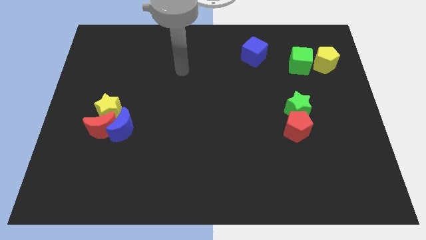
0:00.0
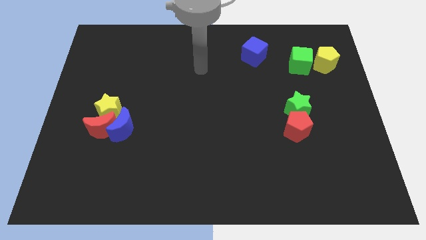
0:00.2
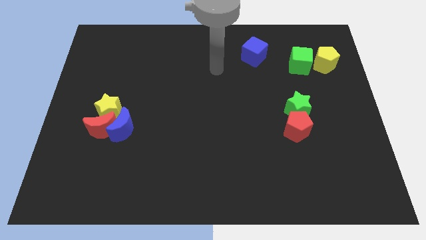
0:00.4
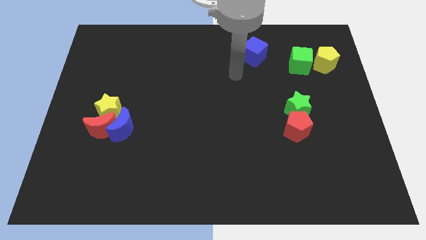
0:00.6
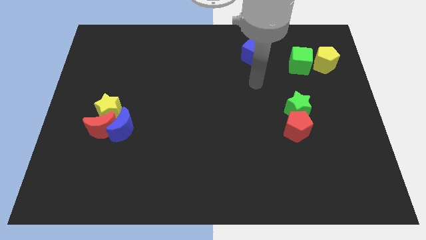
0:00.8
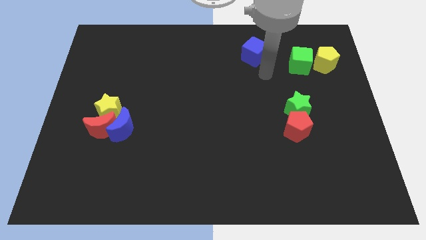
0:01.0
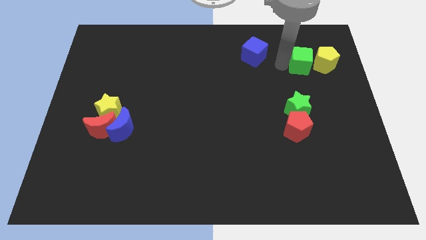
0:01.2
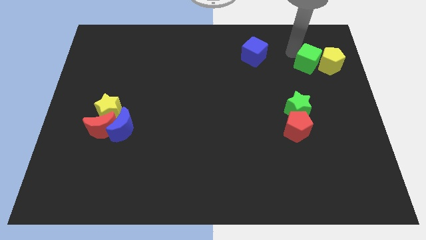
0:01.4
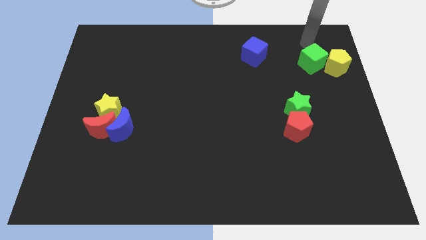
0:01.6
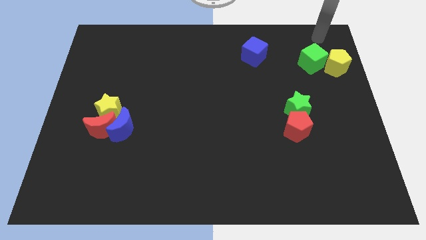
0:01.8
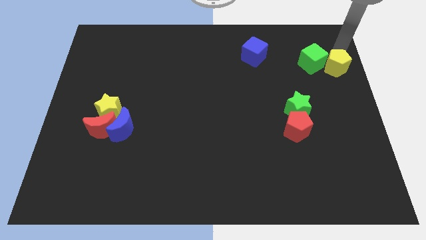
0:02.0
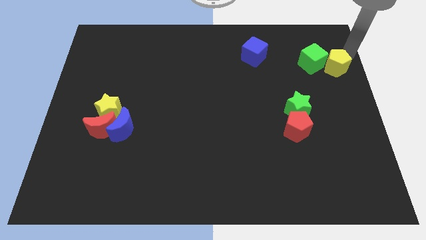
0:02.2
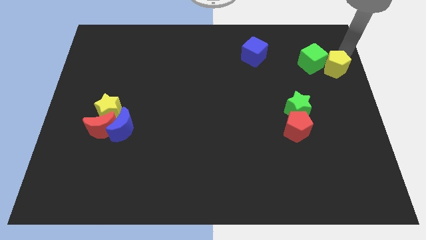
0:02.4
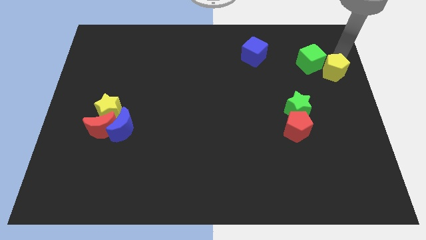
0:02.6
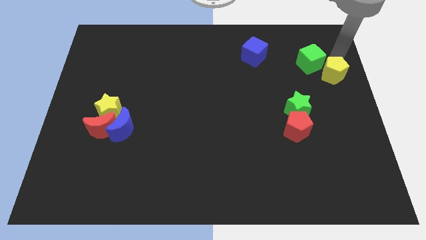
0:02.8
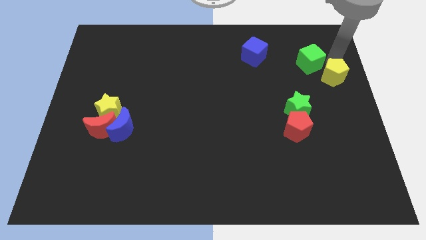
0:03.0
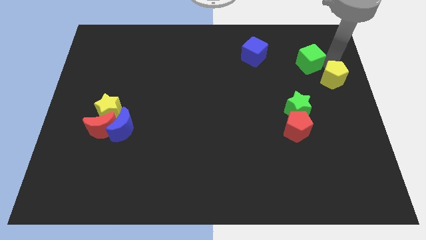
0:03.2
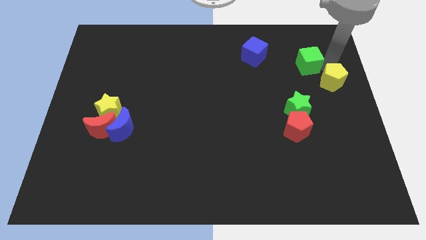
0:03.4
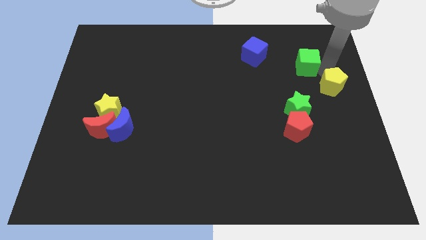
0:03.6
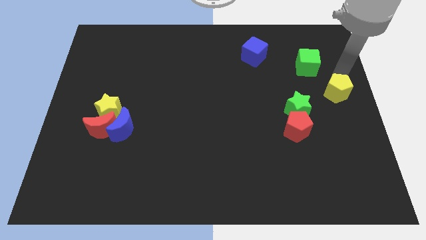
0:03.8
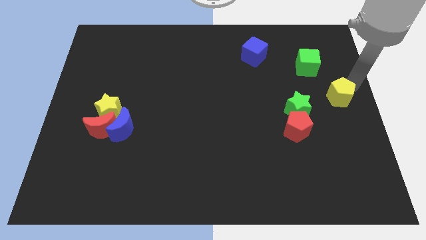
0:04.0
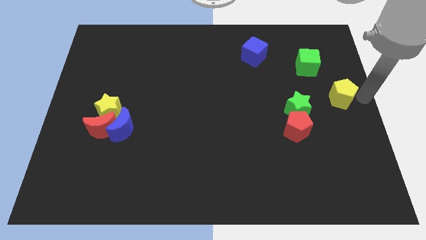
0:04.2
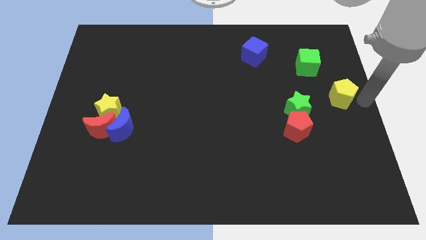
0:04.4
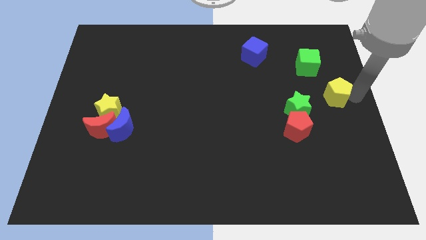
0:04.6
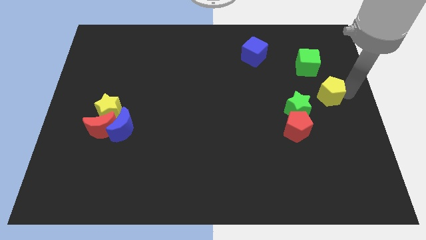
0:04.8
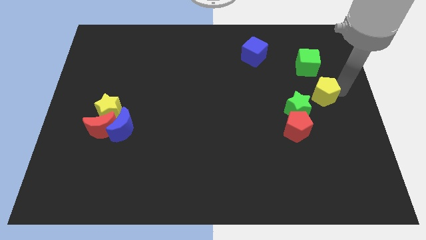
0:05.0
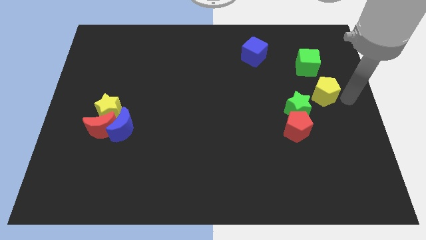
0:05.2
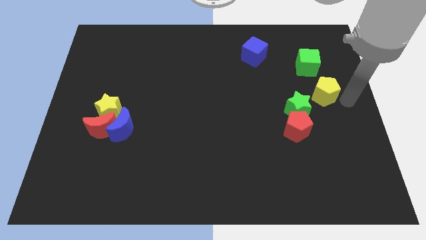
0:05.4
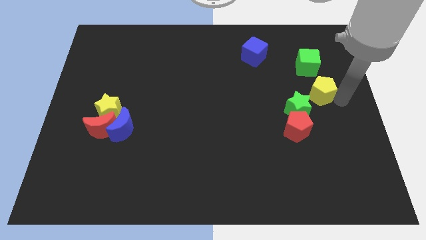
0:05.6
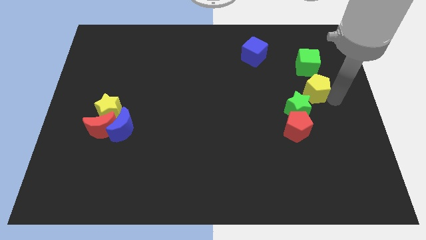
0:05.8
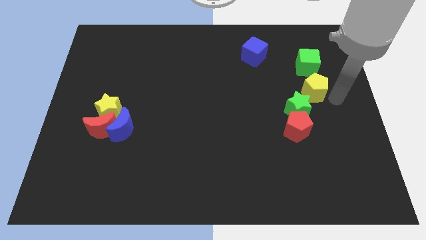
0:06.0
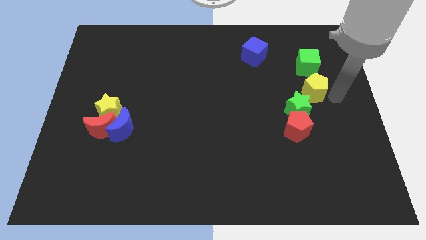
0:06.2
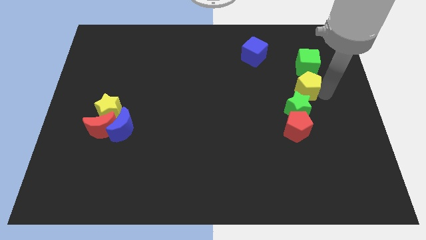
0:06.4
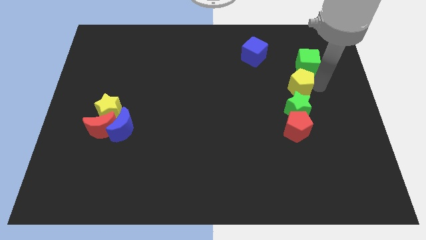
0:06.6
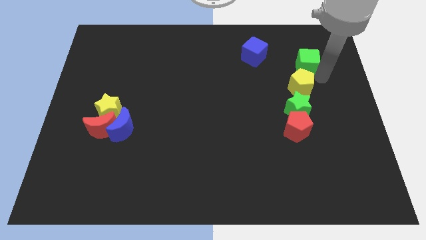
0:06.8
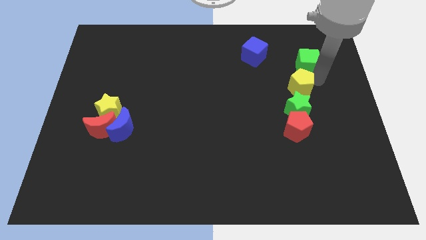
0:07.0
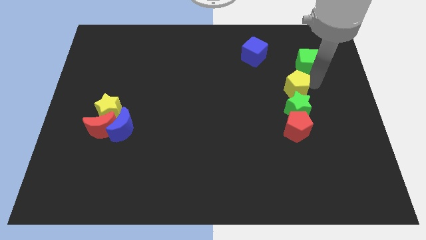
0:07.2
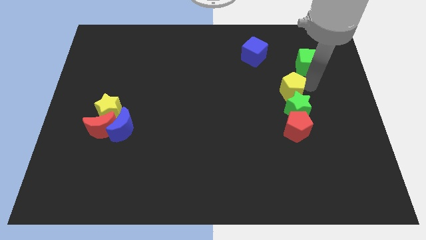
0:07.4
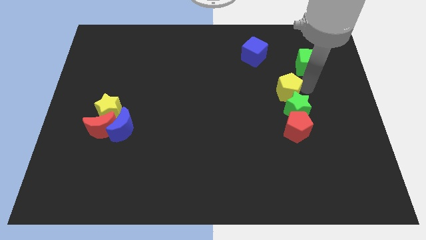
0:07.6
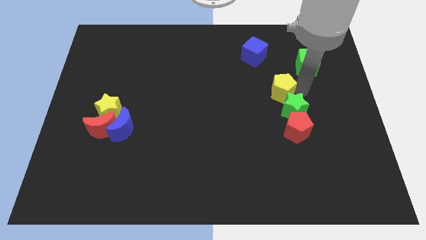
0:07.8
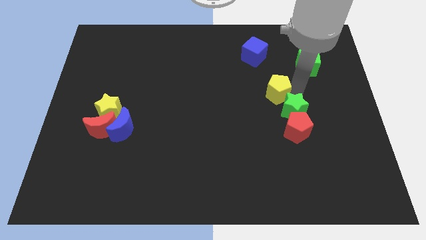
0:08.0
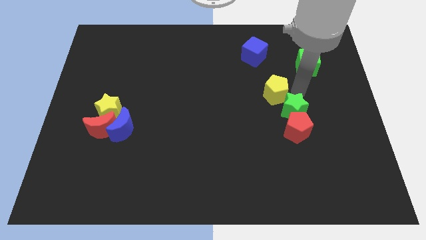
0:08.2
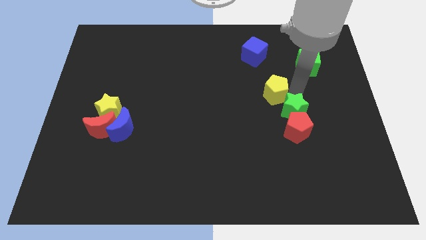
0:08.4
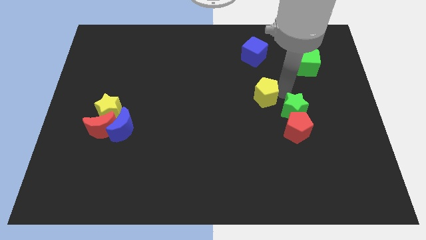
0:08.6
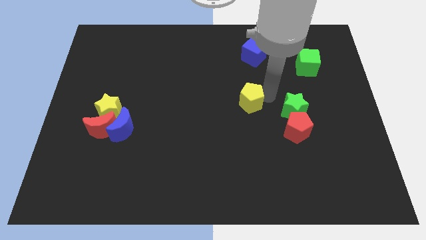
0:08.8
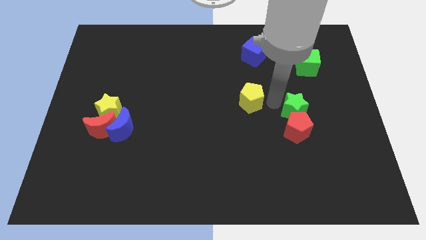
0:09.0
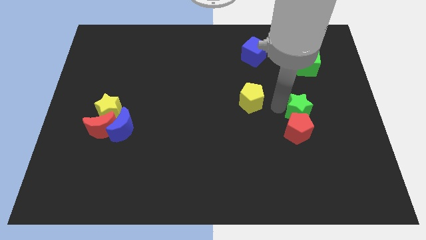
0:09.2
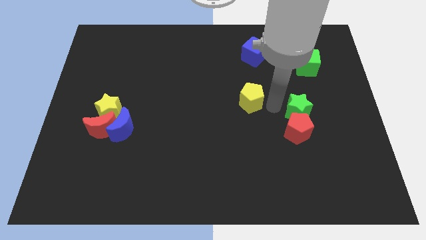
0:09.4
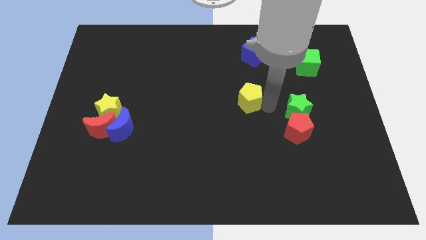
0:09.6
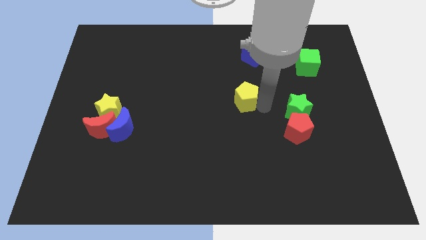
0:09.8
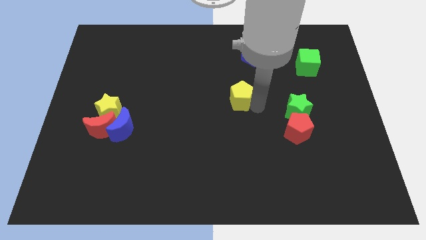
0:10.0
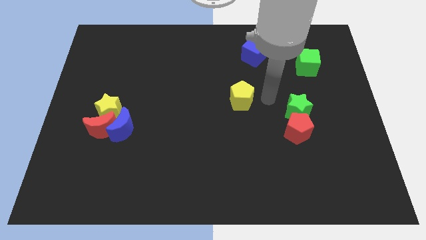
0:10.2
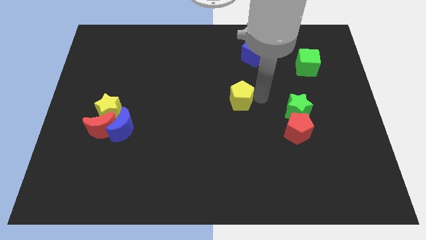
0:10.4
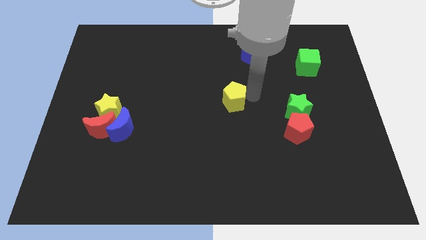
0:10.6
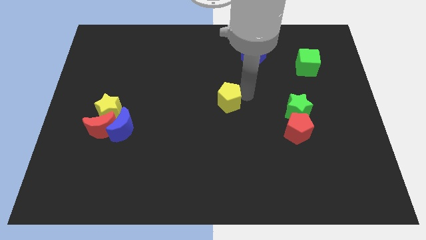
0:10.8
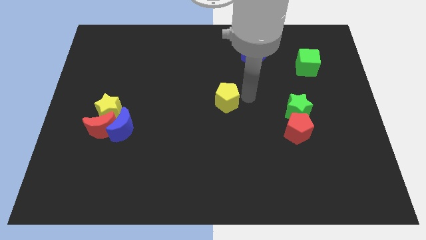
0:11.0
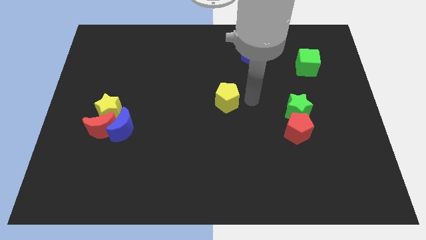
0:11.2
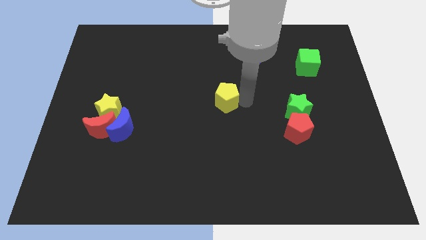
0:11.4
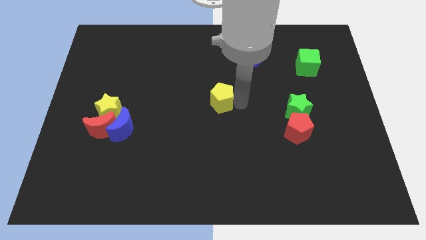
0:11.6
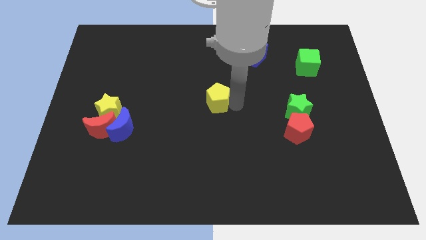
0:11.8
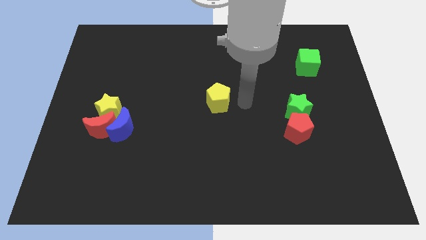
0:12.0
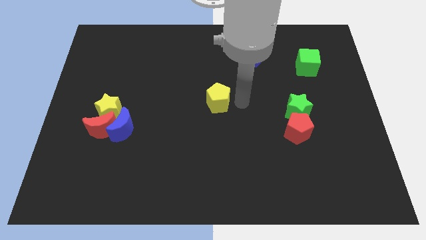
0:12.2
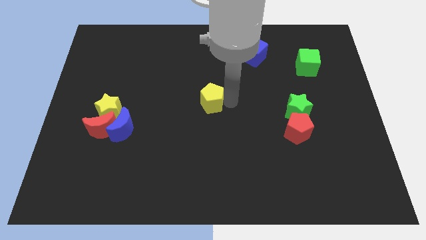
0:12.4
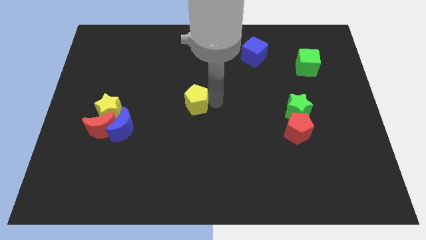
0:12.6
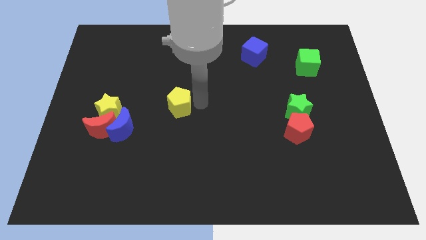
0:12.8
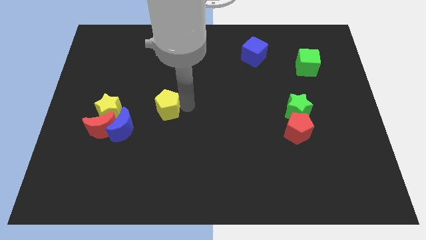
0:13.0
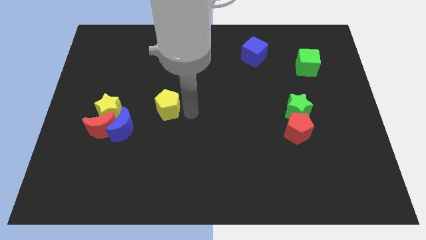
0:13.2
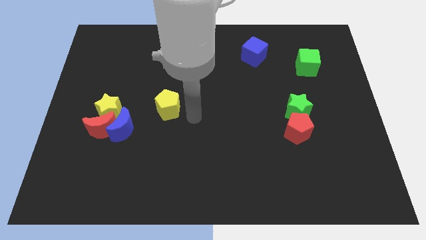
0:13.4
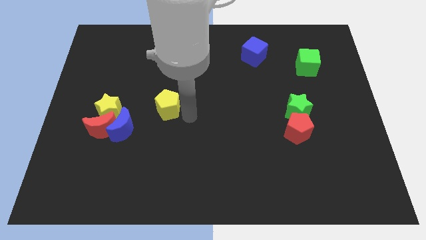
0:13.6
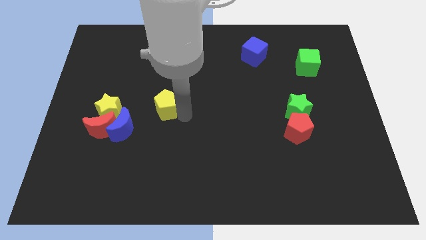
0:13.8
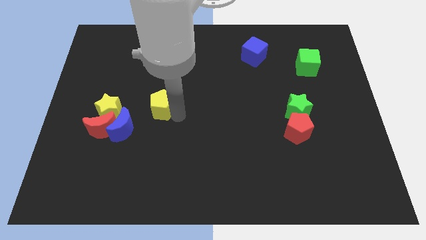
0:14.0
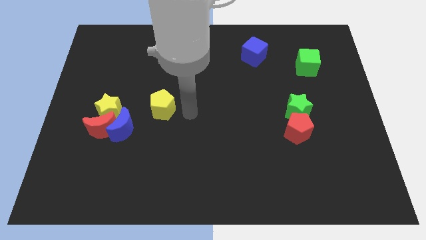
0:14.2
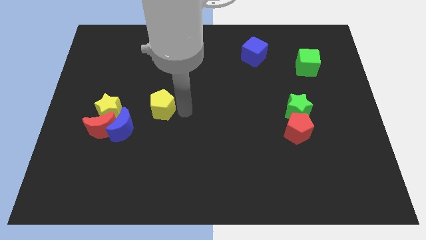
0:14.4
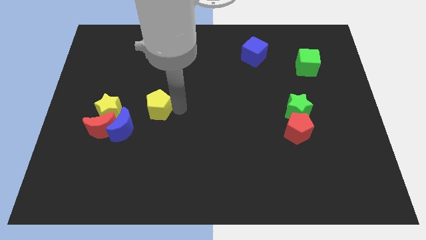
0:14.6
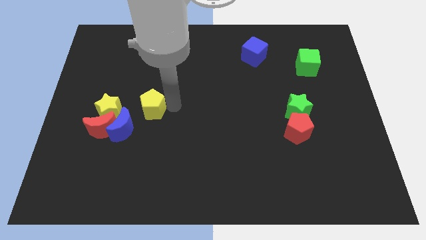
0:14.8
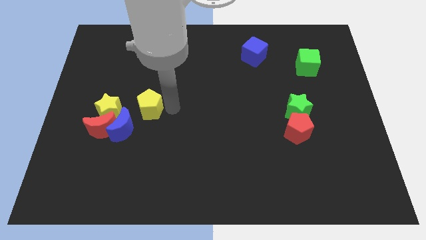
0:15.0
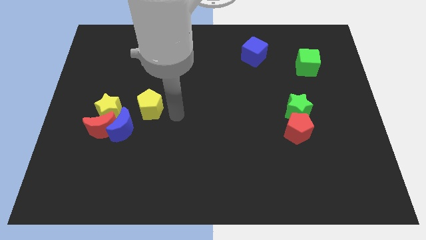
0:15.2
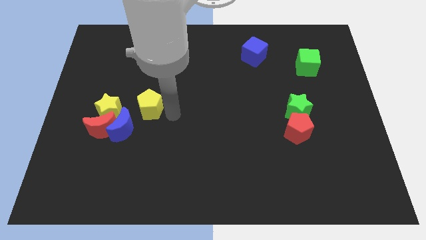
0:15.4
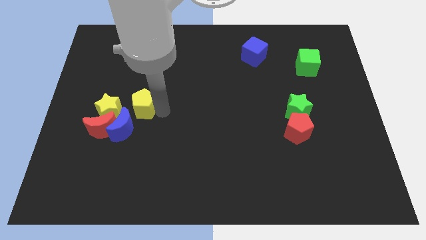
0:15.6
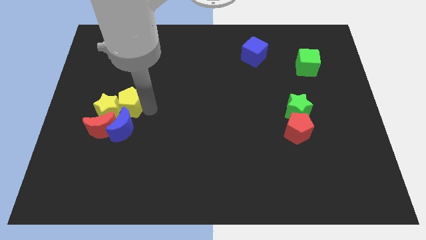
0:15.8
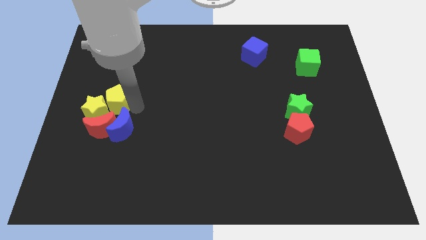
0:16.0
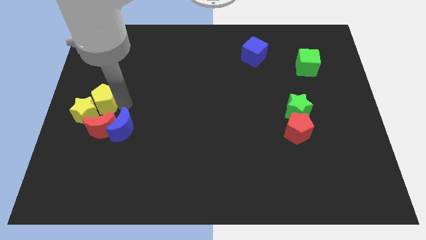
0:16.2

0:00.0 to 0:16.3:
move the yellow pentagon to the left side of the board
